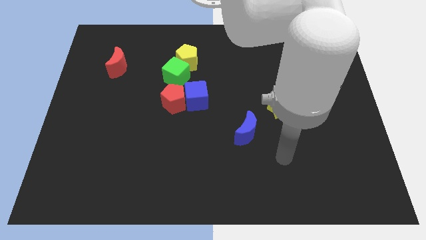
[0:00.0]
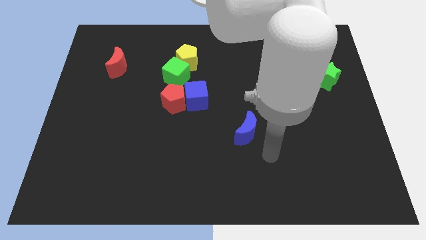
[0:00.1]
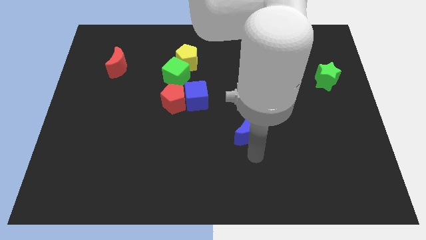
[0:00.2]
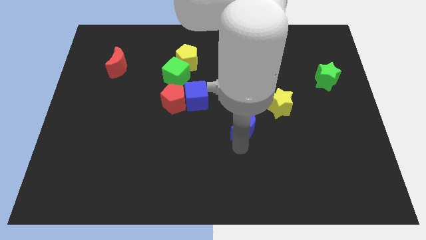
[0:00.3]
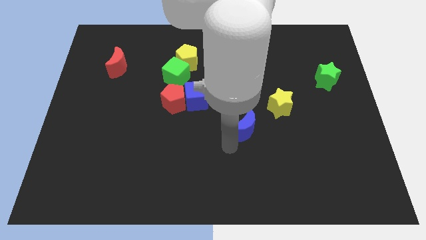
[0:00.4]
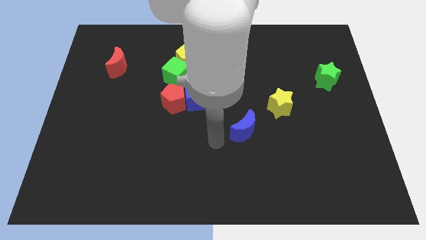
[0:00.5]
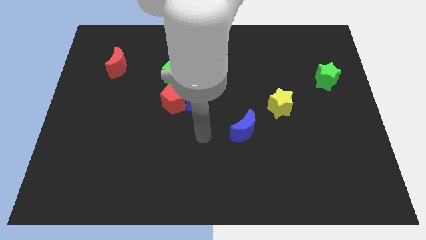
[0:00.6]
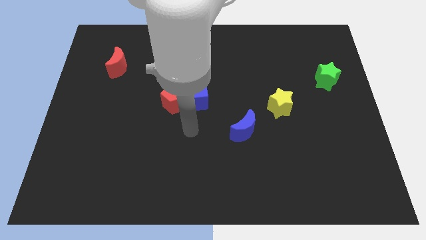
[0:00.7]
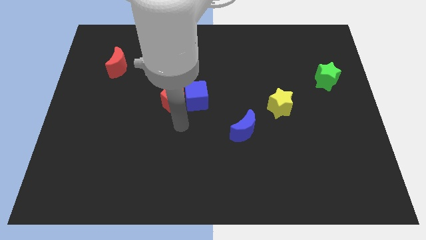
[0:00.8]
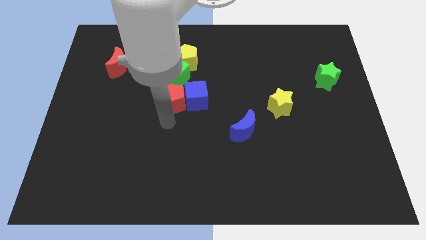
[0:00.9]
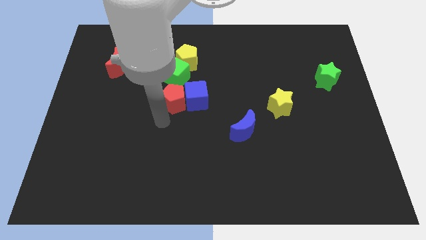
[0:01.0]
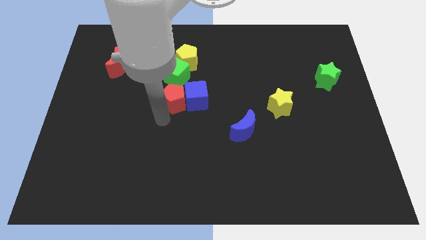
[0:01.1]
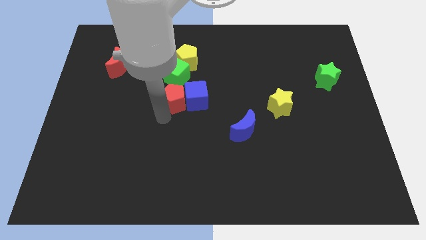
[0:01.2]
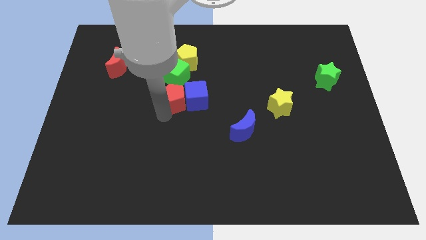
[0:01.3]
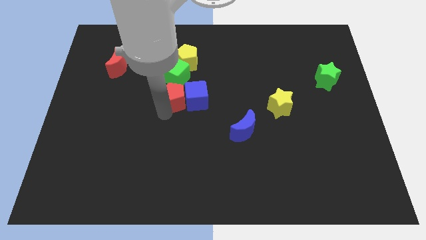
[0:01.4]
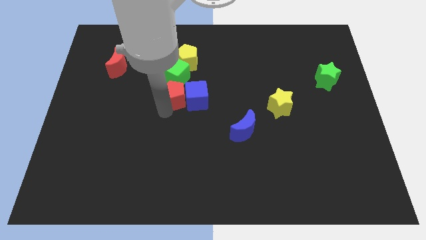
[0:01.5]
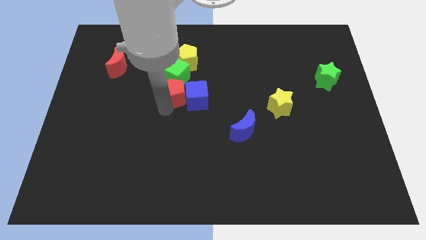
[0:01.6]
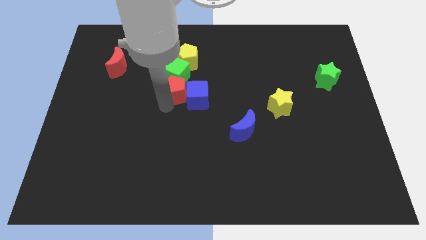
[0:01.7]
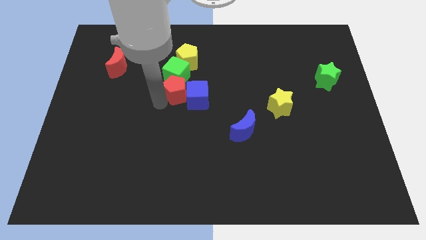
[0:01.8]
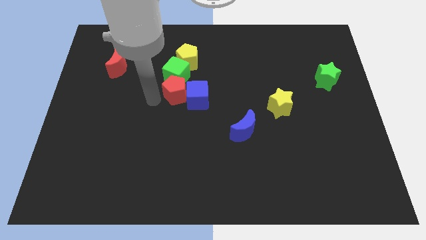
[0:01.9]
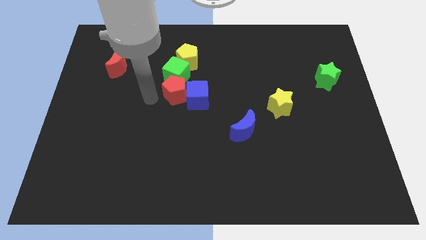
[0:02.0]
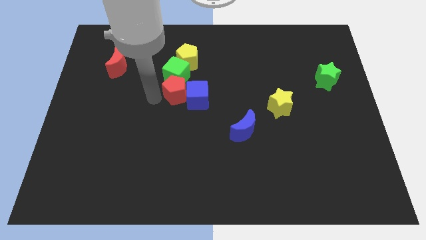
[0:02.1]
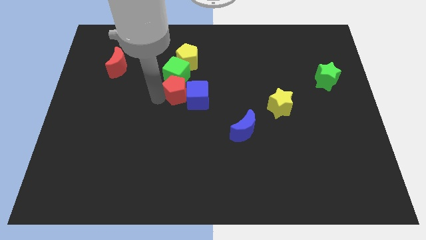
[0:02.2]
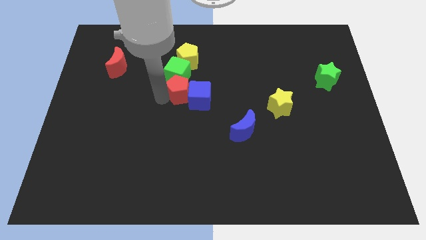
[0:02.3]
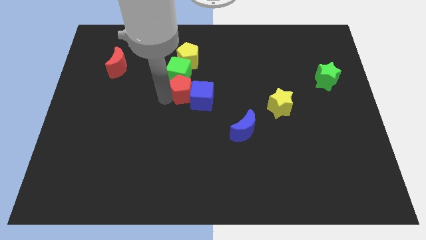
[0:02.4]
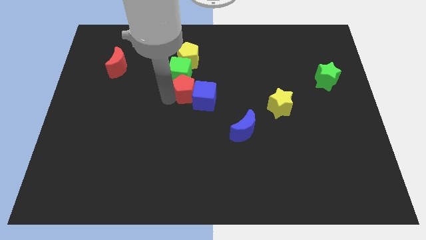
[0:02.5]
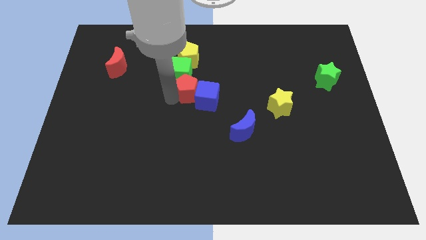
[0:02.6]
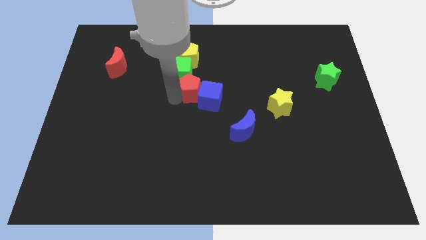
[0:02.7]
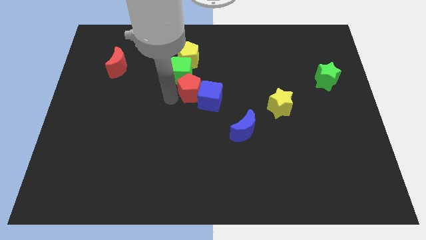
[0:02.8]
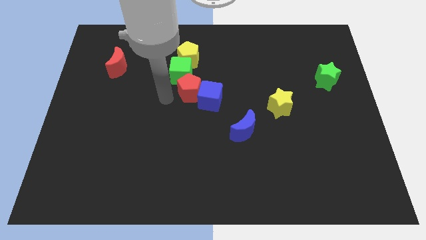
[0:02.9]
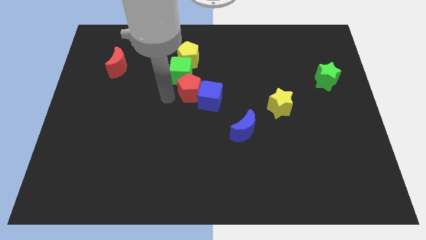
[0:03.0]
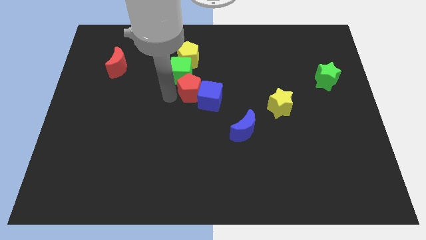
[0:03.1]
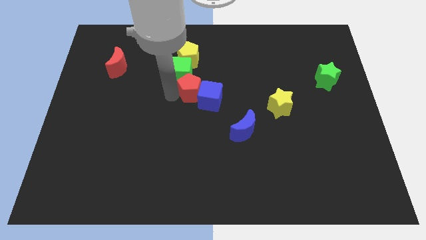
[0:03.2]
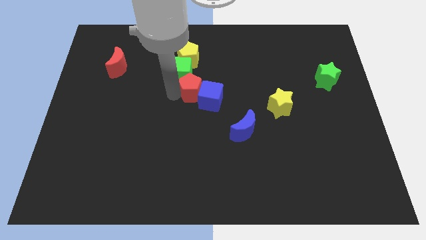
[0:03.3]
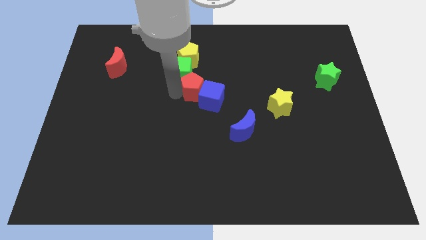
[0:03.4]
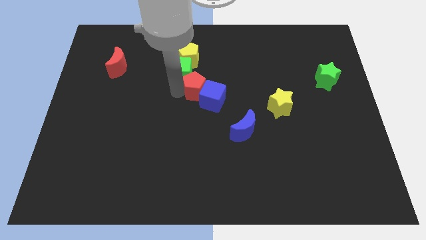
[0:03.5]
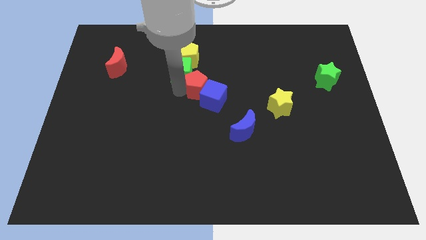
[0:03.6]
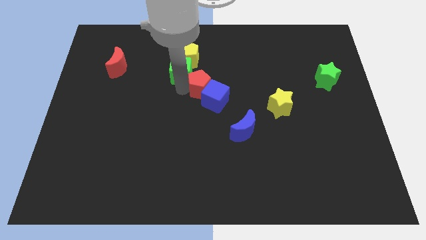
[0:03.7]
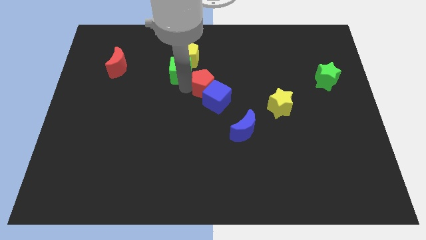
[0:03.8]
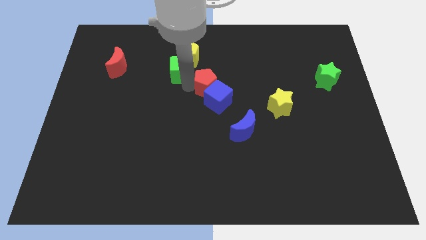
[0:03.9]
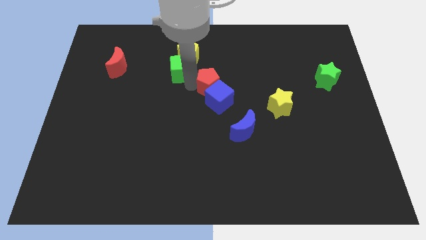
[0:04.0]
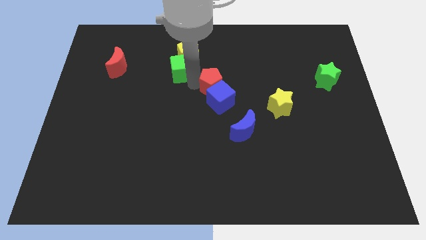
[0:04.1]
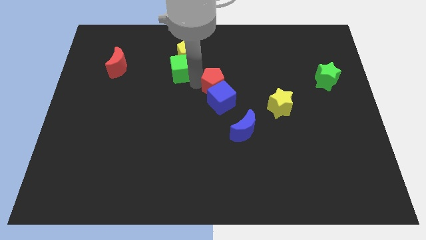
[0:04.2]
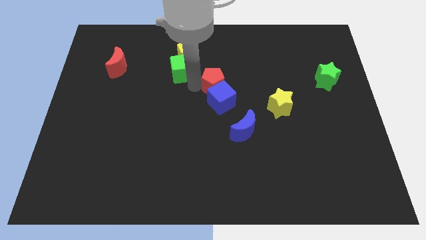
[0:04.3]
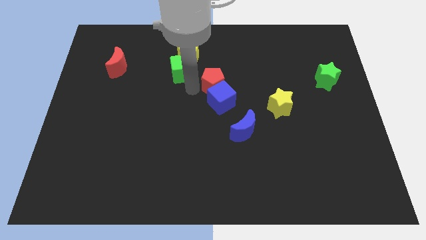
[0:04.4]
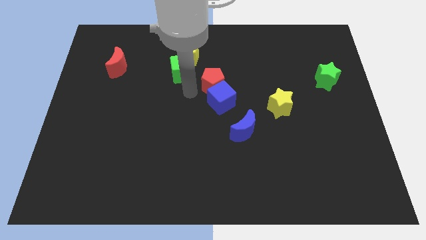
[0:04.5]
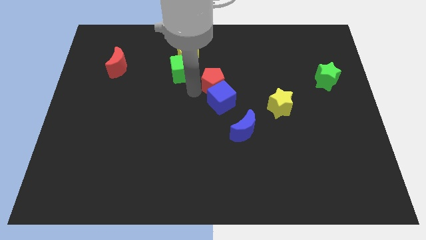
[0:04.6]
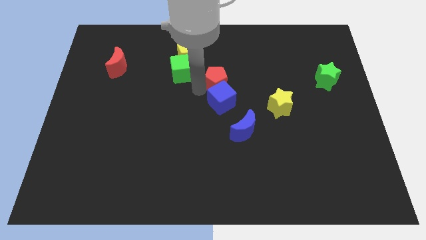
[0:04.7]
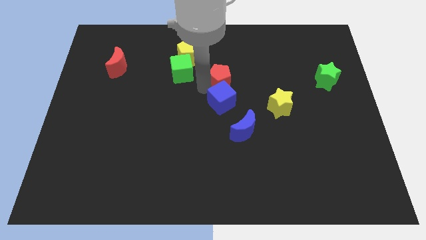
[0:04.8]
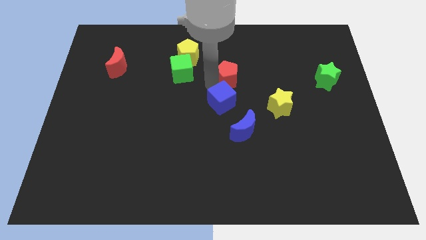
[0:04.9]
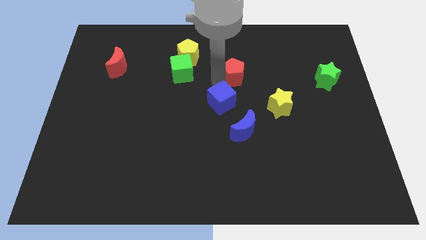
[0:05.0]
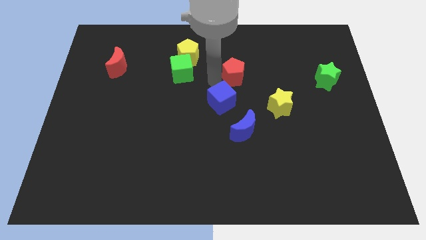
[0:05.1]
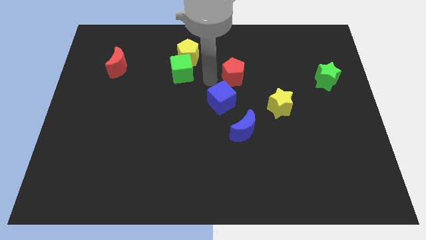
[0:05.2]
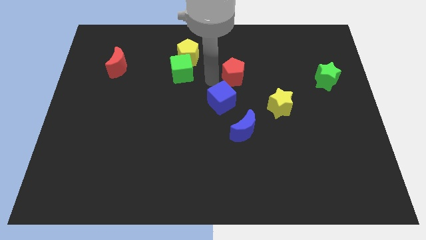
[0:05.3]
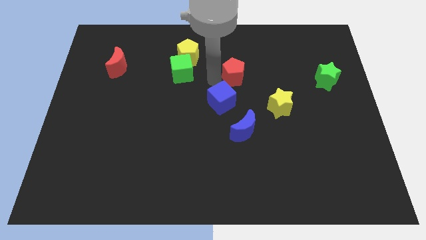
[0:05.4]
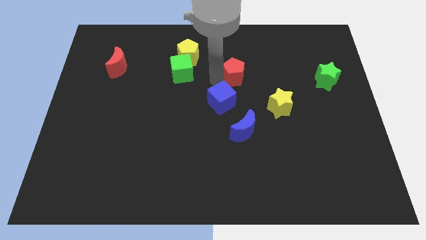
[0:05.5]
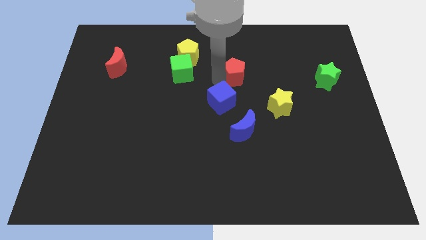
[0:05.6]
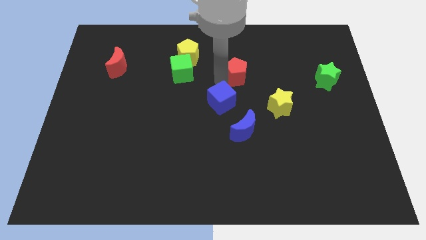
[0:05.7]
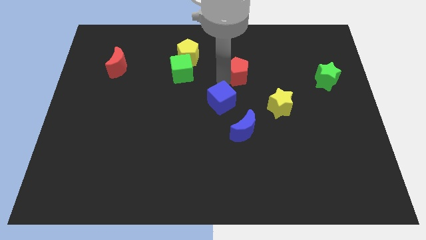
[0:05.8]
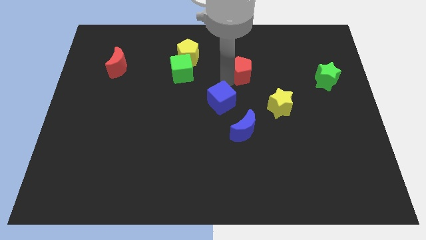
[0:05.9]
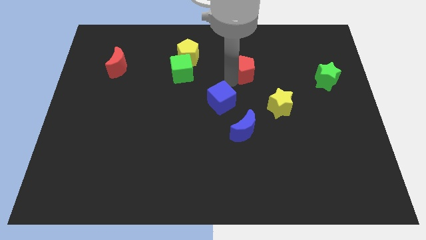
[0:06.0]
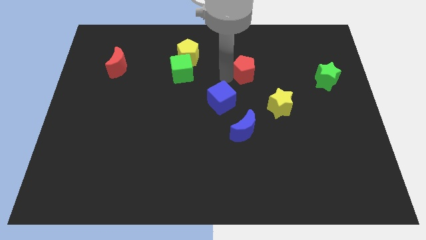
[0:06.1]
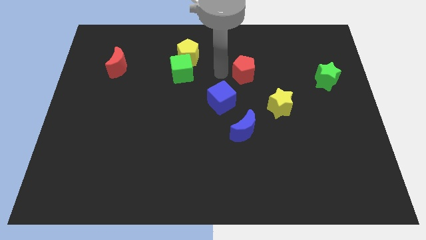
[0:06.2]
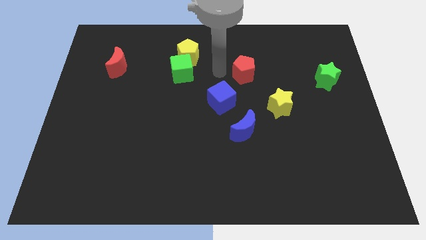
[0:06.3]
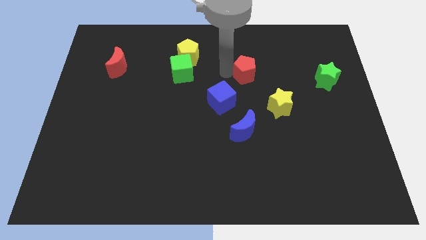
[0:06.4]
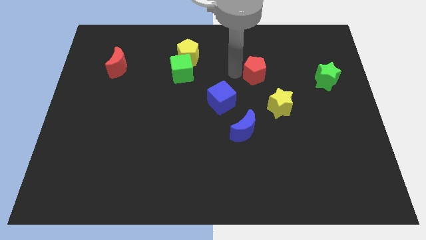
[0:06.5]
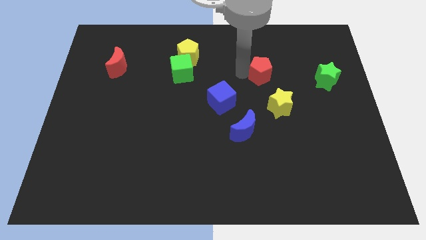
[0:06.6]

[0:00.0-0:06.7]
slide the red pentagon to the top of the yellow star
